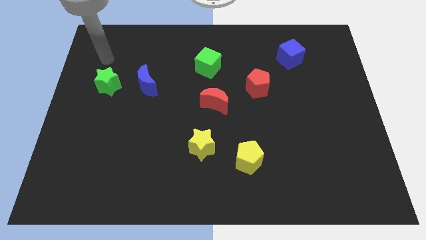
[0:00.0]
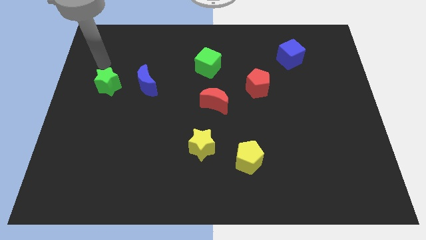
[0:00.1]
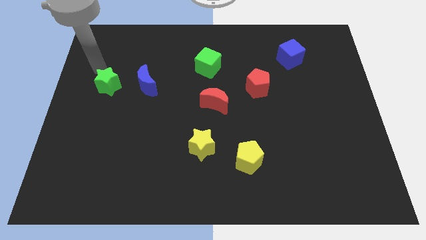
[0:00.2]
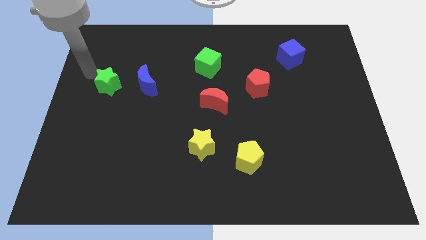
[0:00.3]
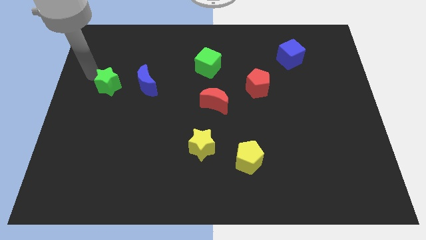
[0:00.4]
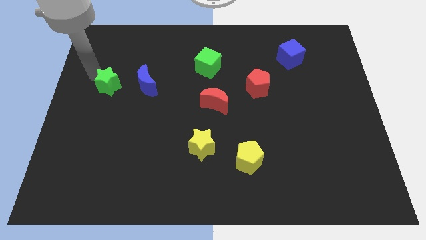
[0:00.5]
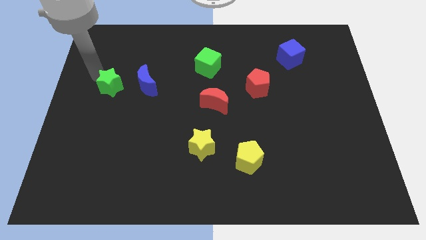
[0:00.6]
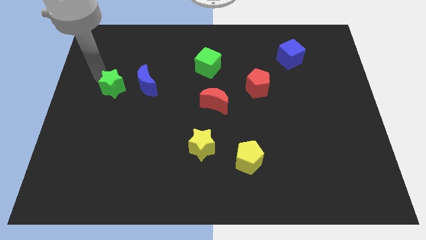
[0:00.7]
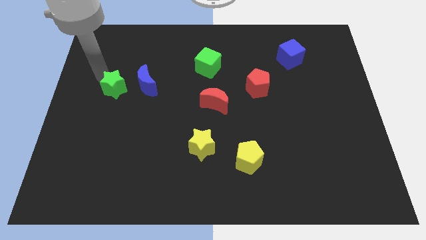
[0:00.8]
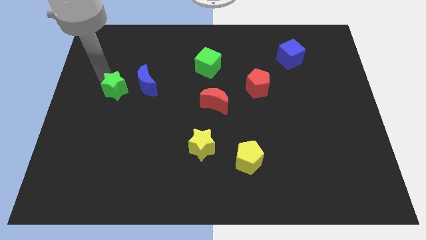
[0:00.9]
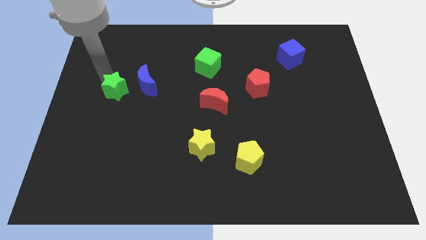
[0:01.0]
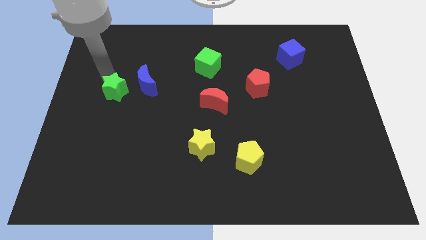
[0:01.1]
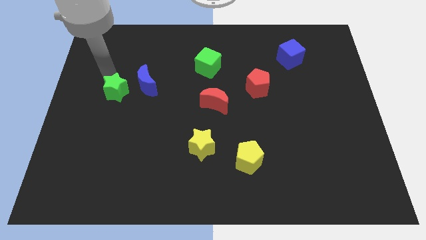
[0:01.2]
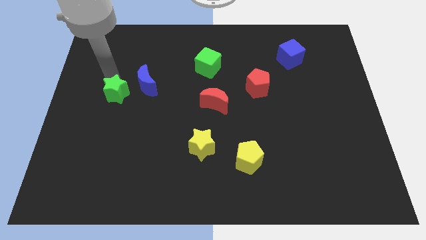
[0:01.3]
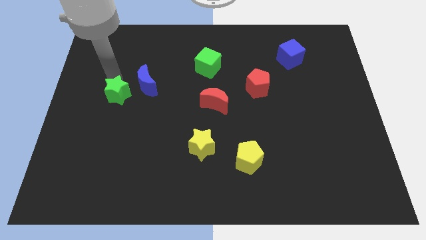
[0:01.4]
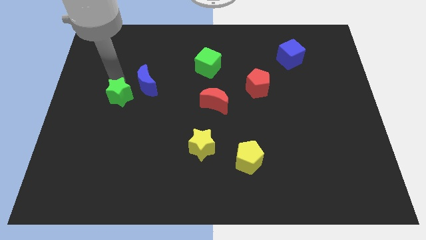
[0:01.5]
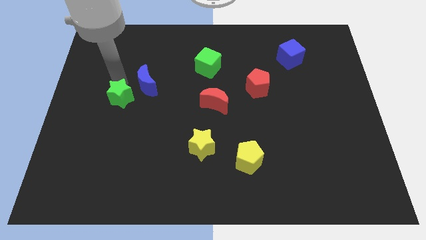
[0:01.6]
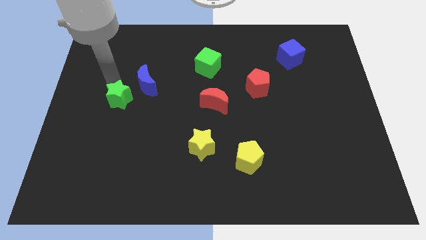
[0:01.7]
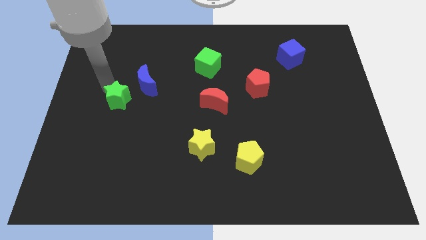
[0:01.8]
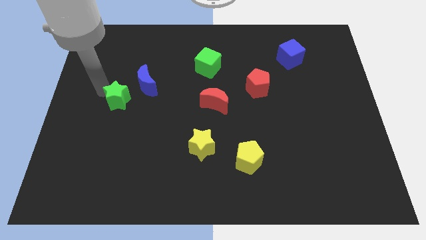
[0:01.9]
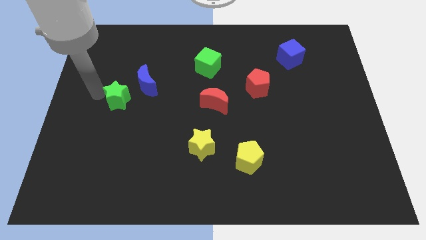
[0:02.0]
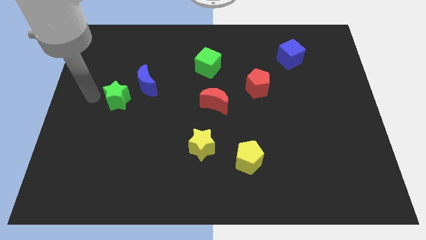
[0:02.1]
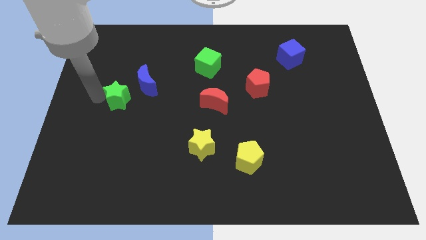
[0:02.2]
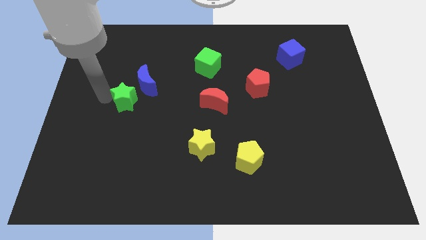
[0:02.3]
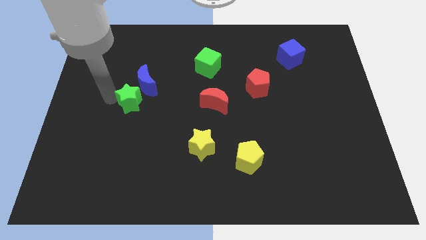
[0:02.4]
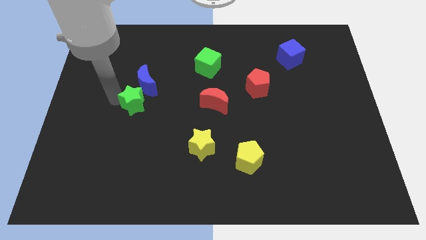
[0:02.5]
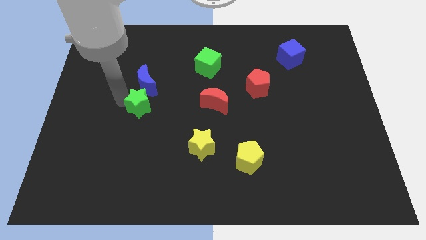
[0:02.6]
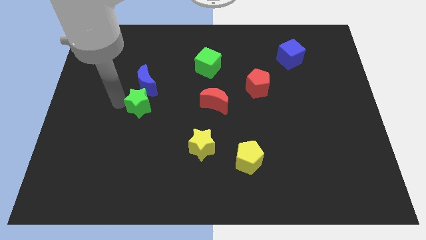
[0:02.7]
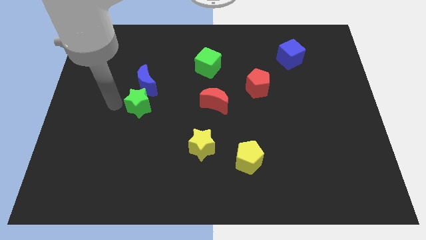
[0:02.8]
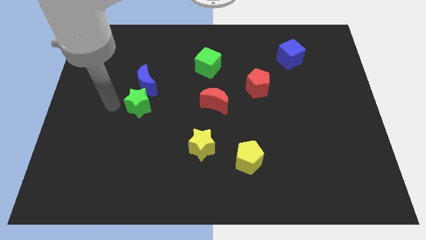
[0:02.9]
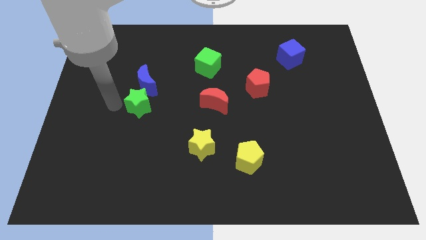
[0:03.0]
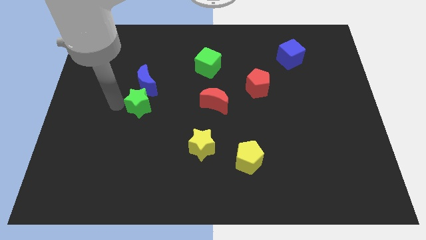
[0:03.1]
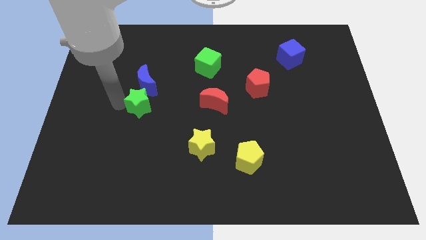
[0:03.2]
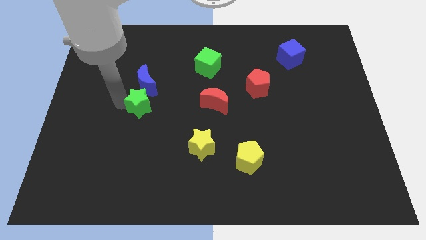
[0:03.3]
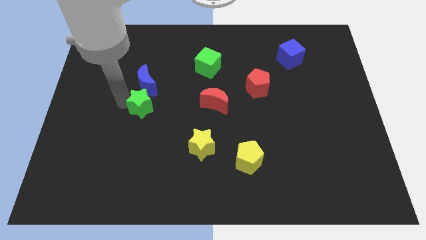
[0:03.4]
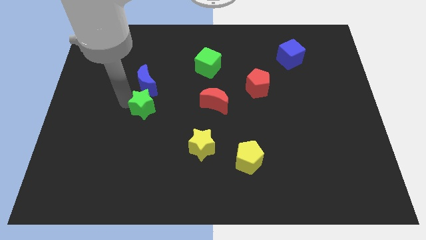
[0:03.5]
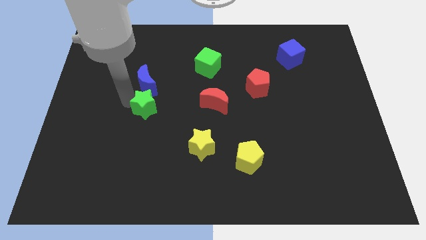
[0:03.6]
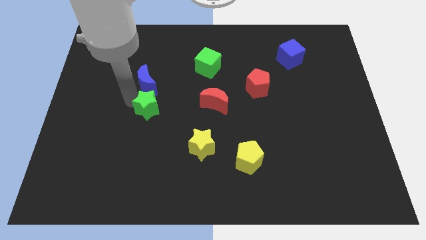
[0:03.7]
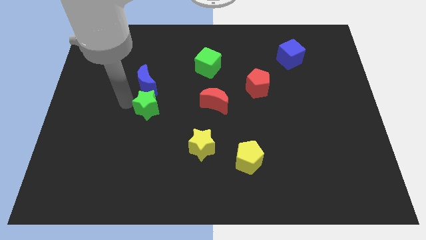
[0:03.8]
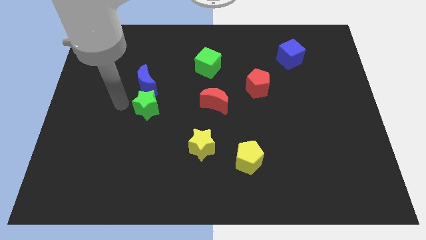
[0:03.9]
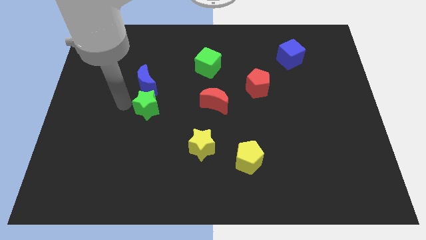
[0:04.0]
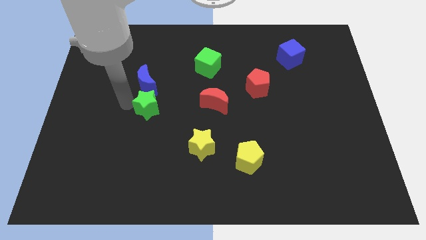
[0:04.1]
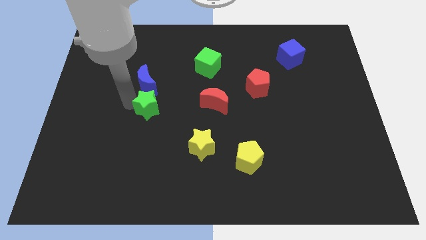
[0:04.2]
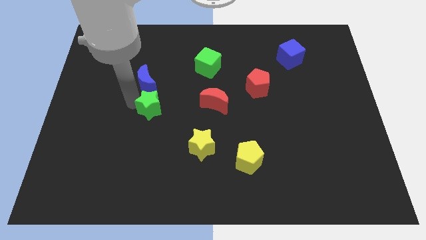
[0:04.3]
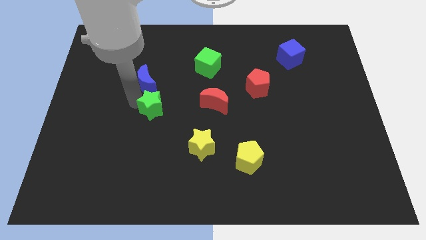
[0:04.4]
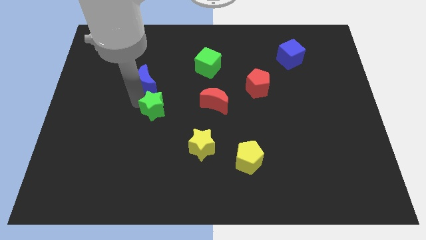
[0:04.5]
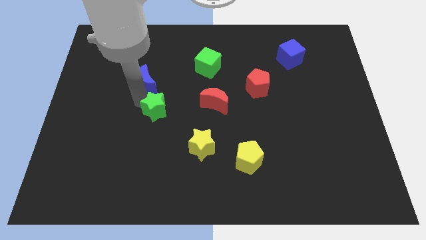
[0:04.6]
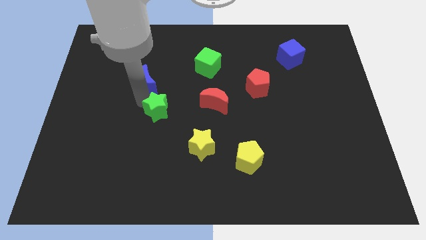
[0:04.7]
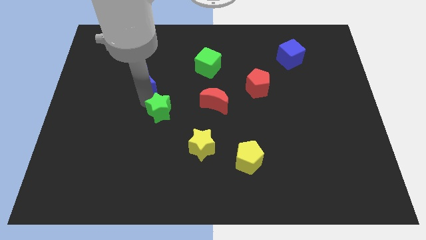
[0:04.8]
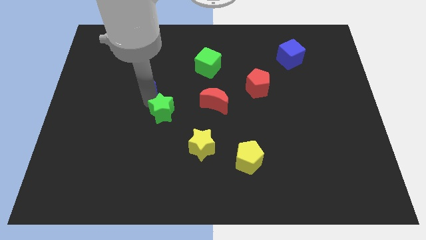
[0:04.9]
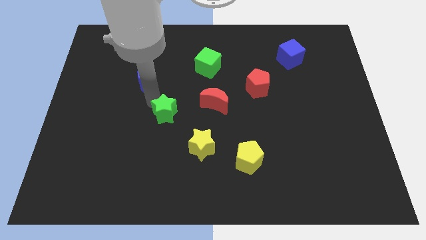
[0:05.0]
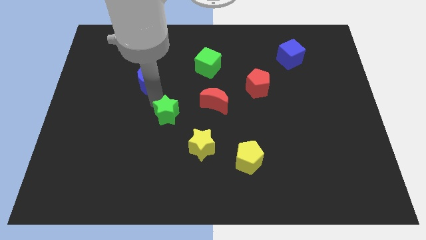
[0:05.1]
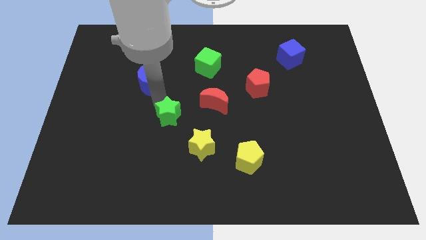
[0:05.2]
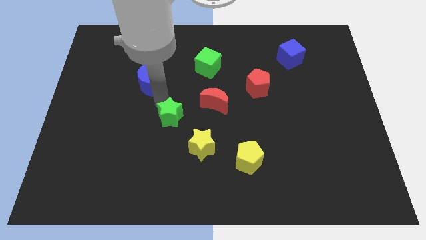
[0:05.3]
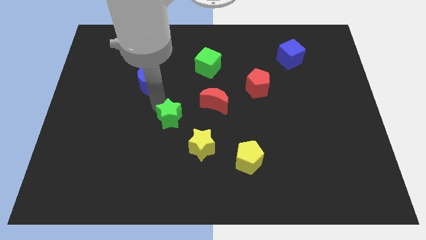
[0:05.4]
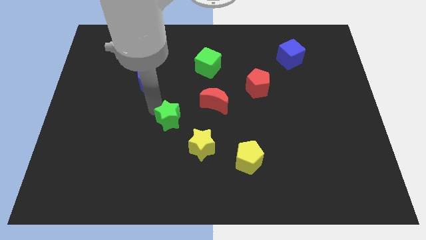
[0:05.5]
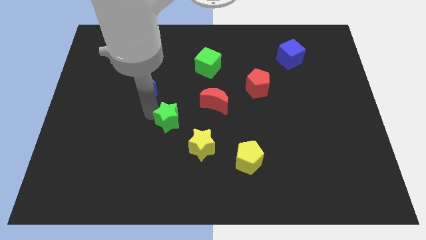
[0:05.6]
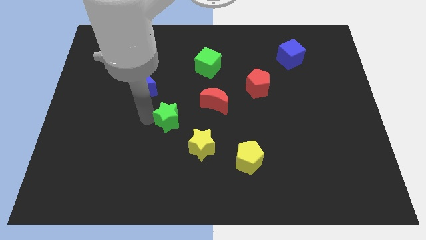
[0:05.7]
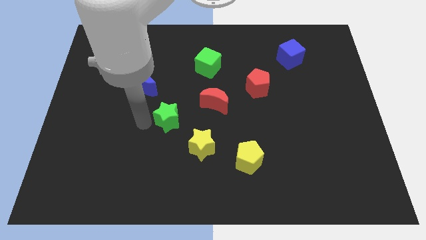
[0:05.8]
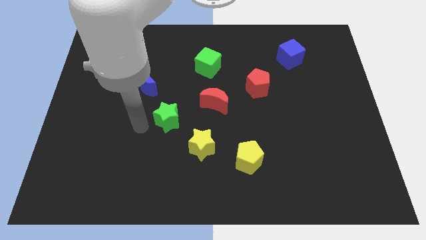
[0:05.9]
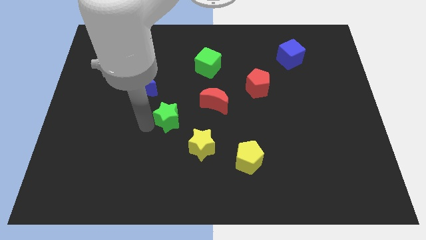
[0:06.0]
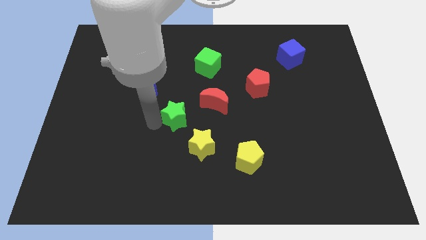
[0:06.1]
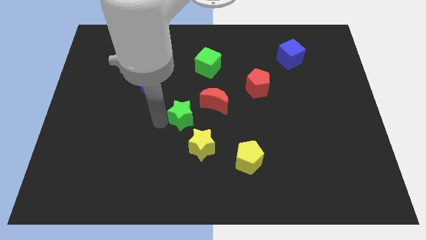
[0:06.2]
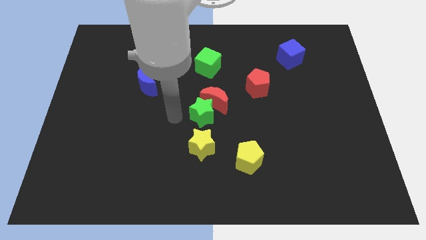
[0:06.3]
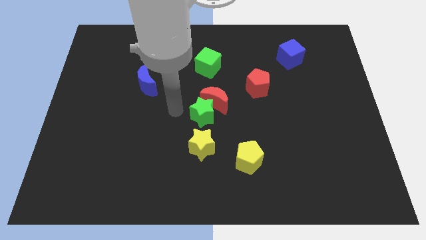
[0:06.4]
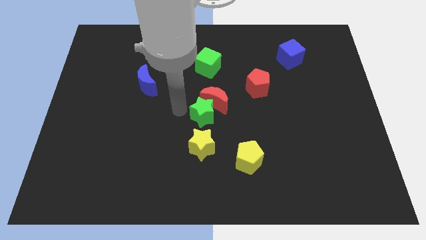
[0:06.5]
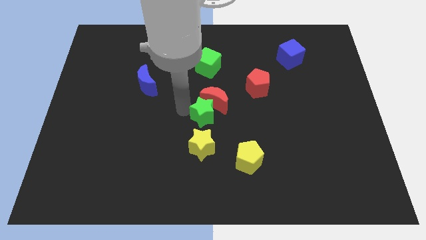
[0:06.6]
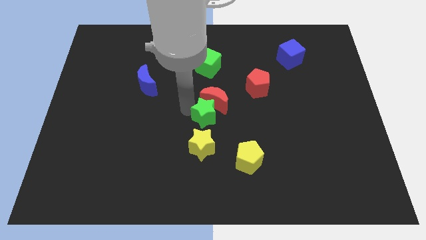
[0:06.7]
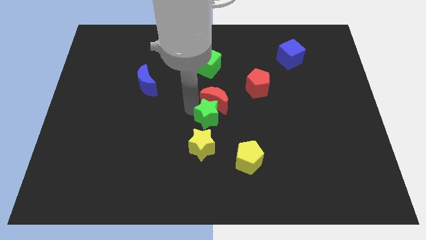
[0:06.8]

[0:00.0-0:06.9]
move the green star diagonally down and to the right of the red moon
